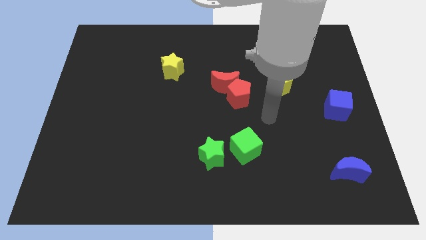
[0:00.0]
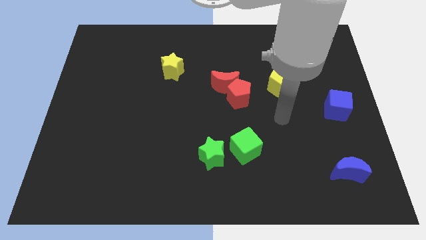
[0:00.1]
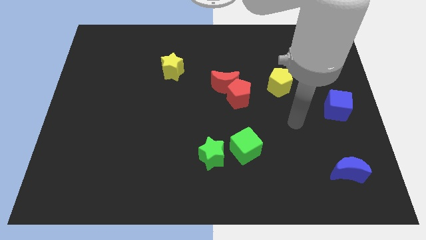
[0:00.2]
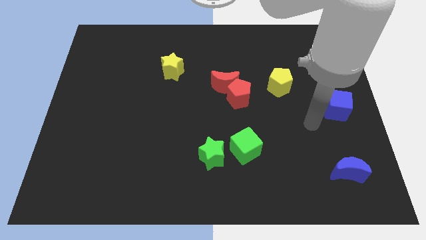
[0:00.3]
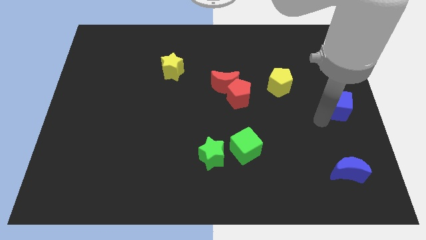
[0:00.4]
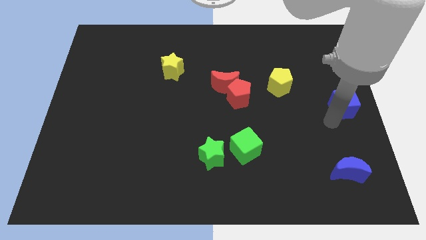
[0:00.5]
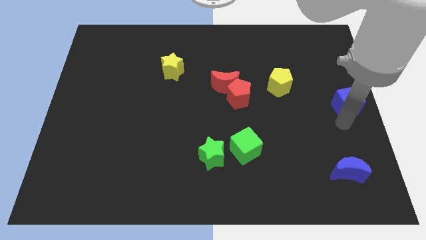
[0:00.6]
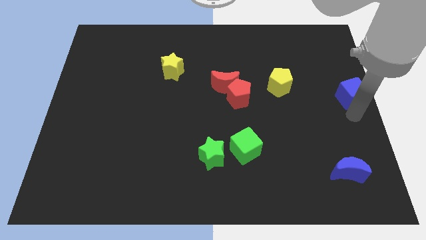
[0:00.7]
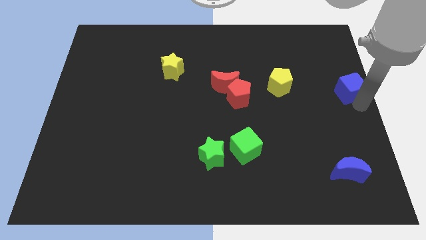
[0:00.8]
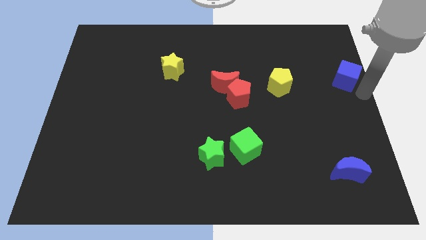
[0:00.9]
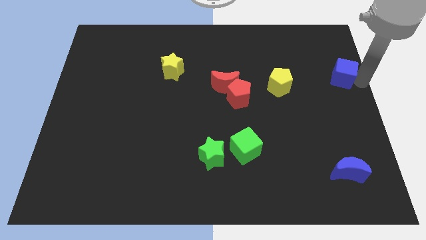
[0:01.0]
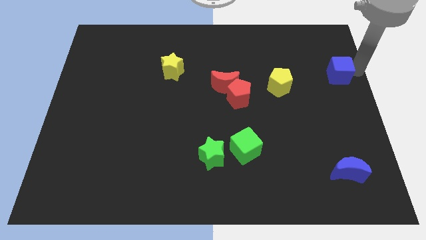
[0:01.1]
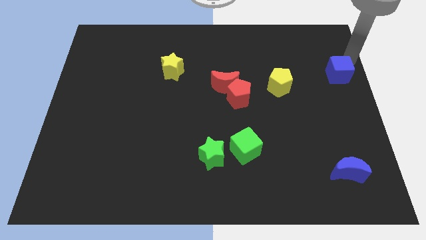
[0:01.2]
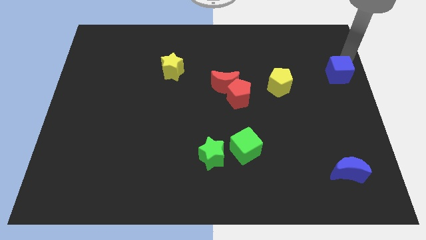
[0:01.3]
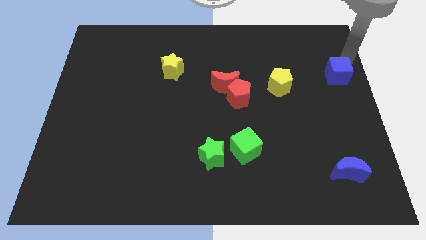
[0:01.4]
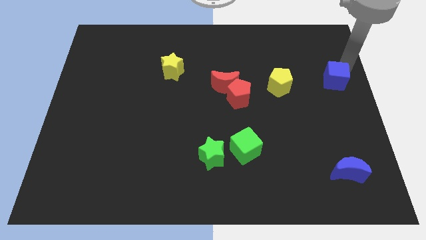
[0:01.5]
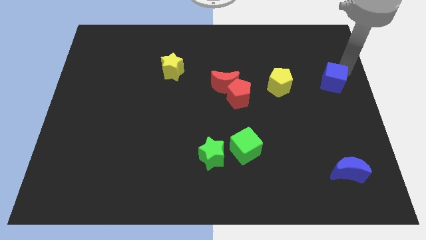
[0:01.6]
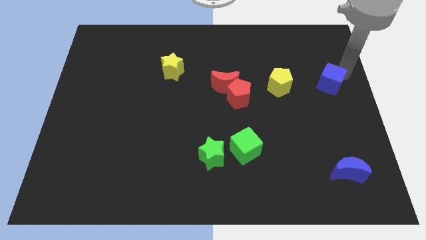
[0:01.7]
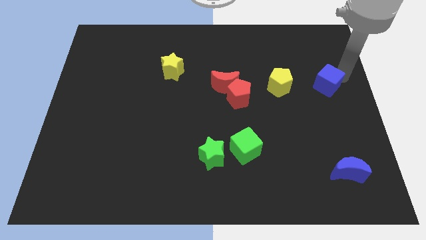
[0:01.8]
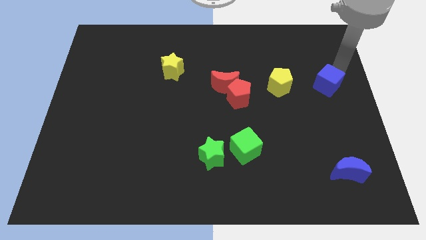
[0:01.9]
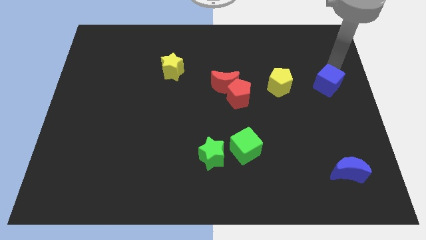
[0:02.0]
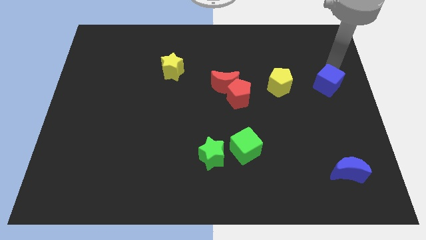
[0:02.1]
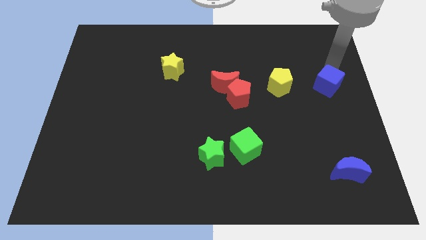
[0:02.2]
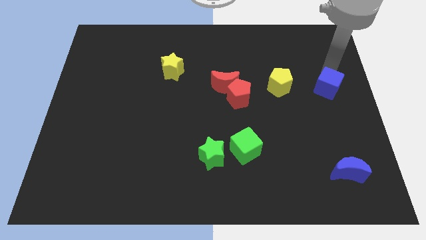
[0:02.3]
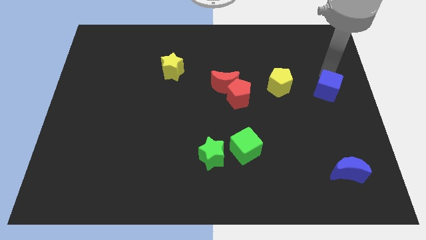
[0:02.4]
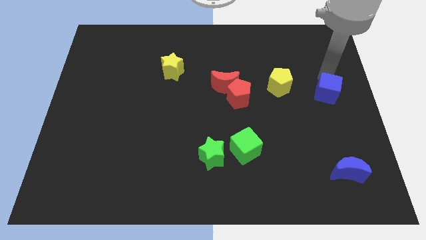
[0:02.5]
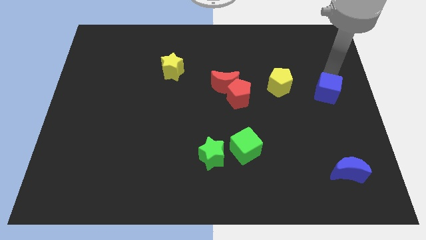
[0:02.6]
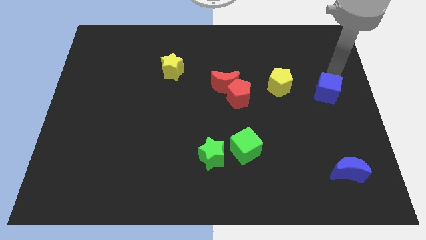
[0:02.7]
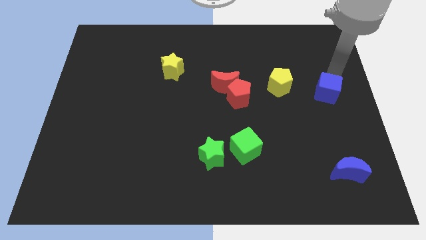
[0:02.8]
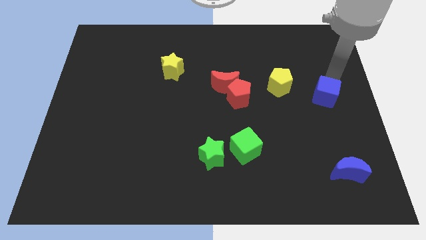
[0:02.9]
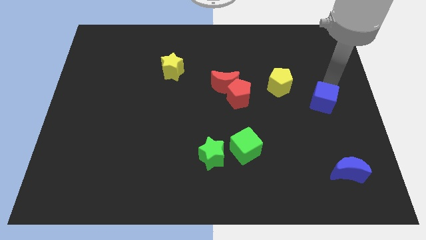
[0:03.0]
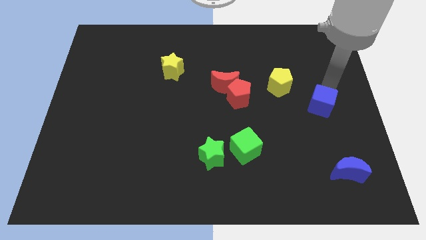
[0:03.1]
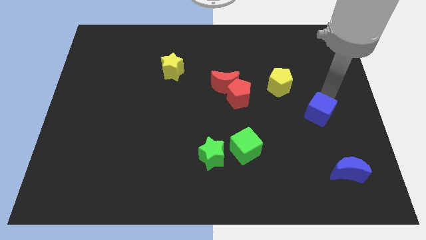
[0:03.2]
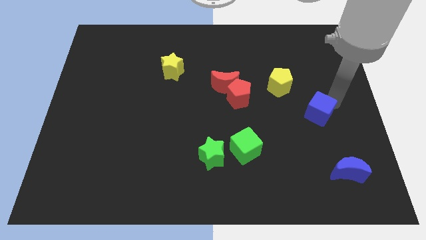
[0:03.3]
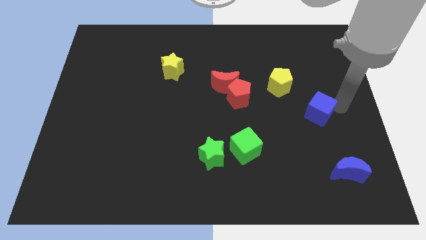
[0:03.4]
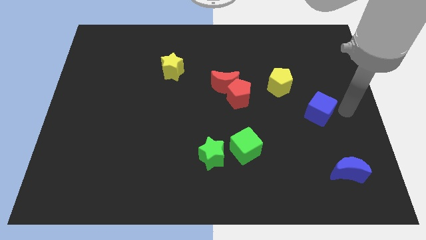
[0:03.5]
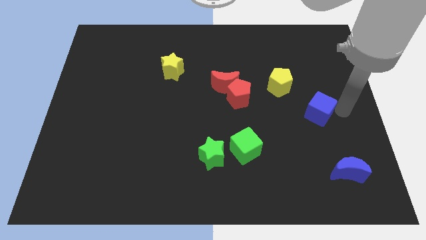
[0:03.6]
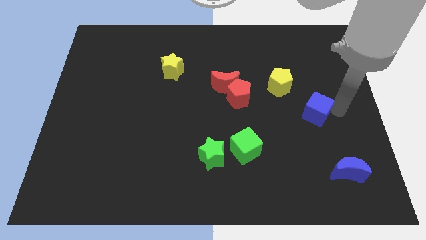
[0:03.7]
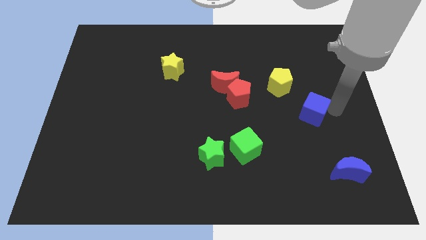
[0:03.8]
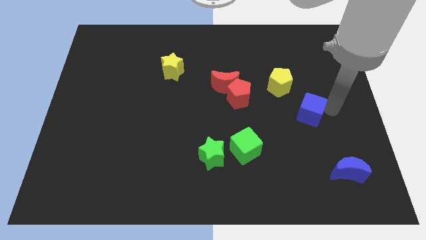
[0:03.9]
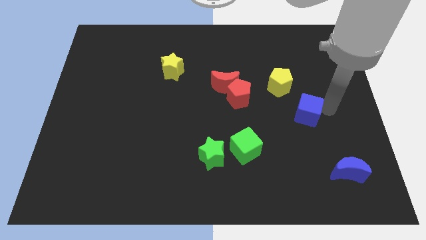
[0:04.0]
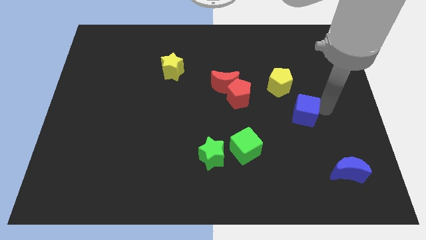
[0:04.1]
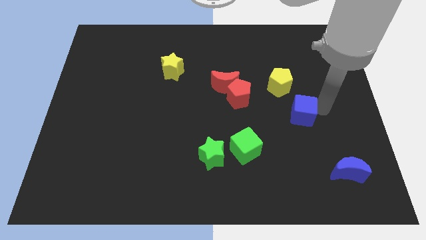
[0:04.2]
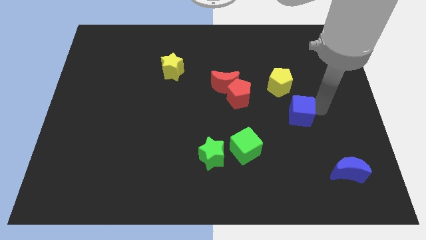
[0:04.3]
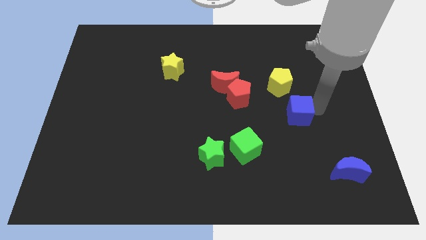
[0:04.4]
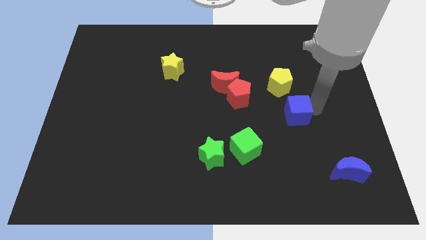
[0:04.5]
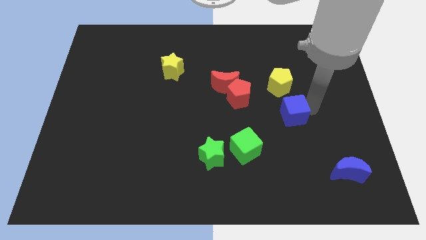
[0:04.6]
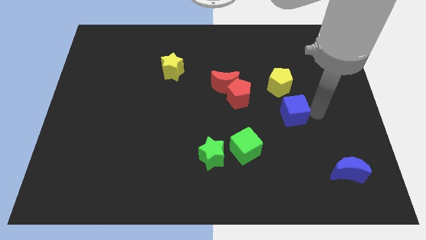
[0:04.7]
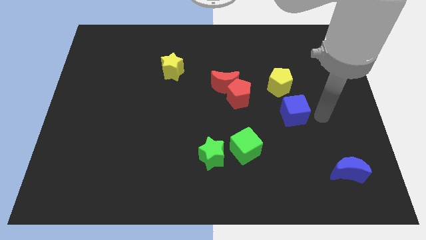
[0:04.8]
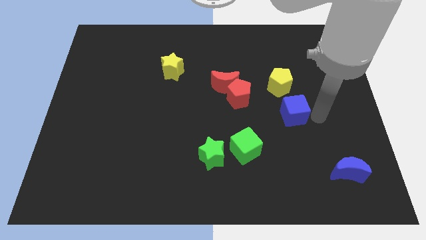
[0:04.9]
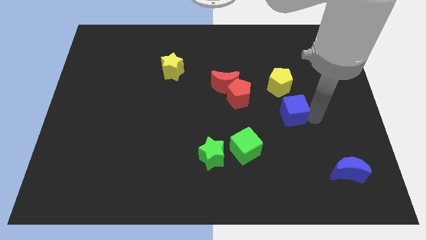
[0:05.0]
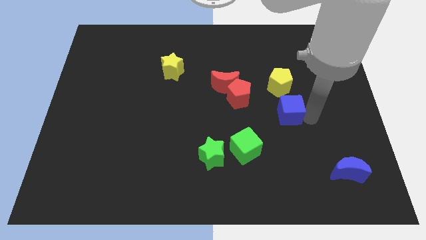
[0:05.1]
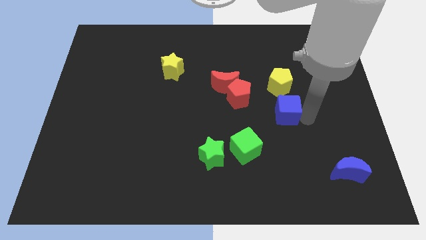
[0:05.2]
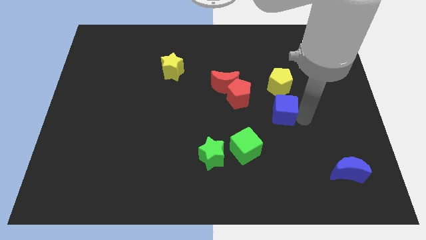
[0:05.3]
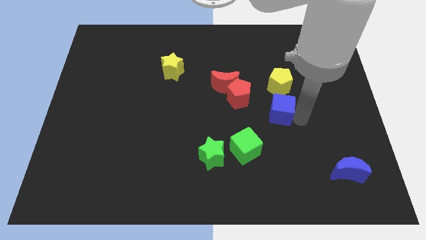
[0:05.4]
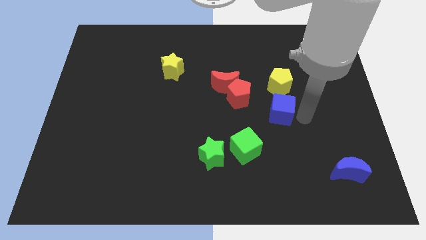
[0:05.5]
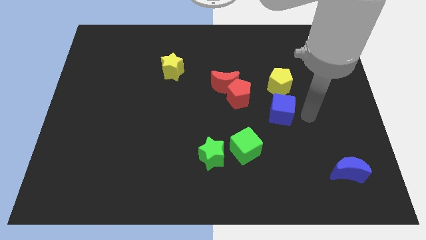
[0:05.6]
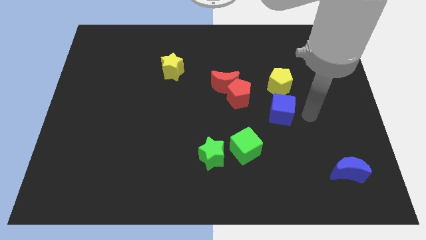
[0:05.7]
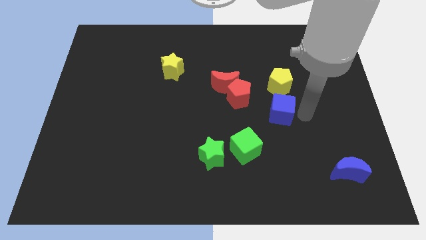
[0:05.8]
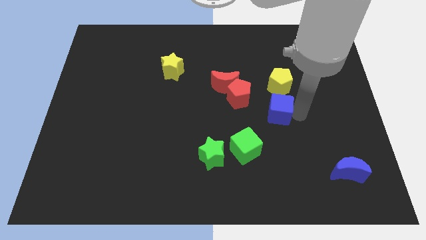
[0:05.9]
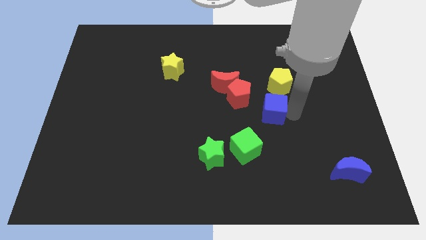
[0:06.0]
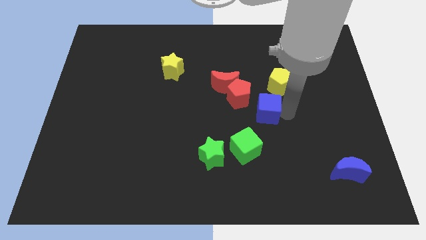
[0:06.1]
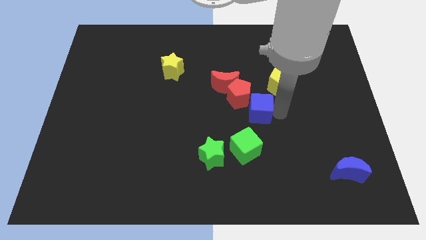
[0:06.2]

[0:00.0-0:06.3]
put the blue cube above the green cube
